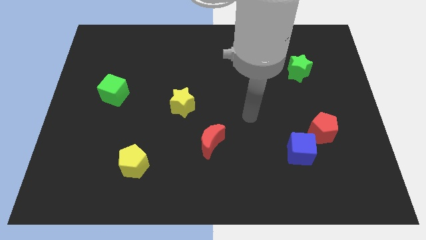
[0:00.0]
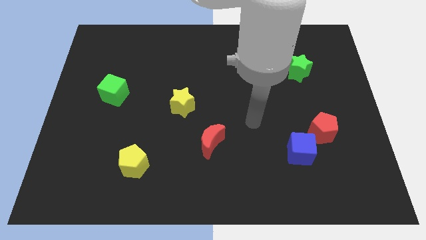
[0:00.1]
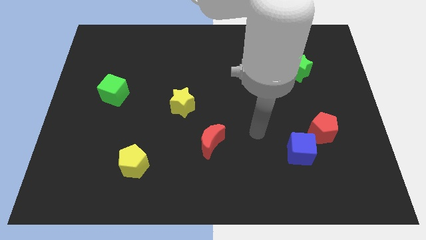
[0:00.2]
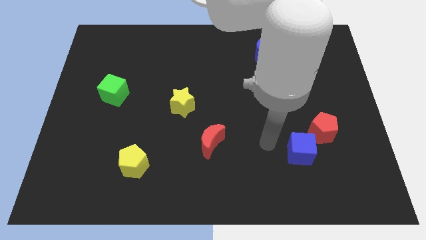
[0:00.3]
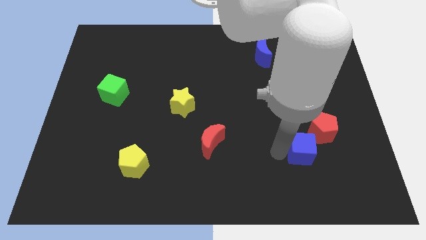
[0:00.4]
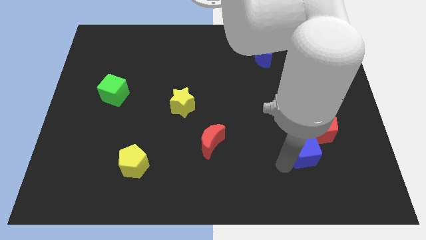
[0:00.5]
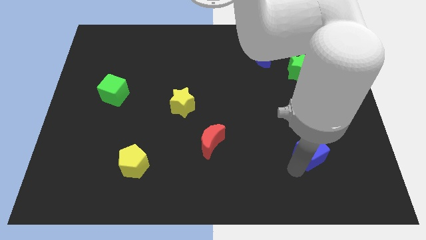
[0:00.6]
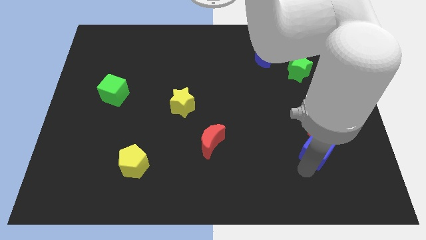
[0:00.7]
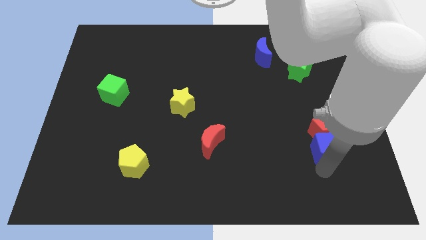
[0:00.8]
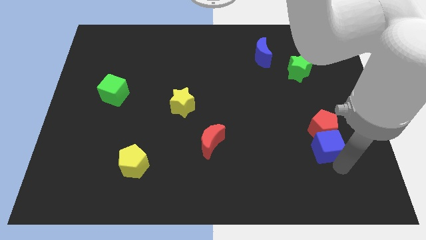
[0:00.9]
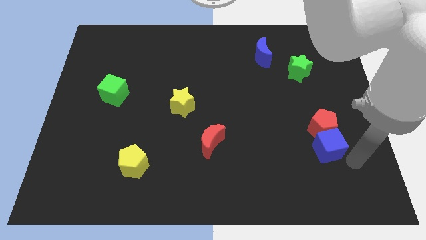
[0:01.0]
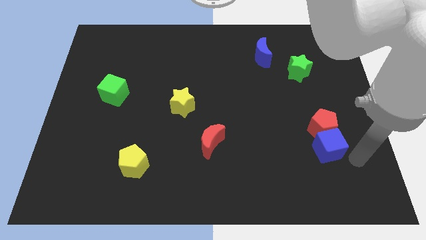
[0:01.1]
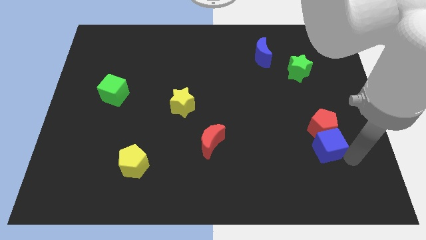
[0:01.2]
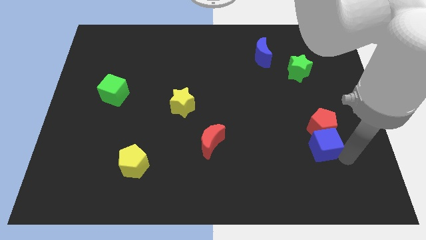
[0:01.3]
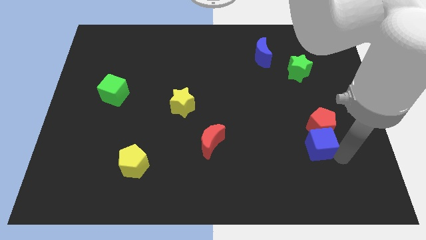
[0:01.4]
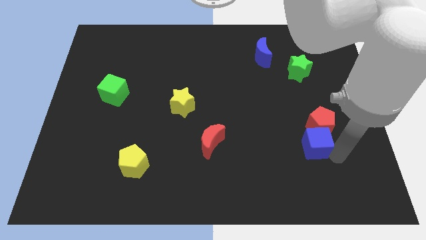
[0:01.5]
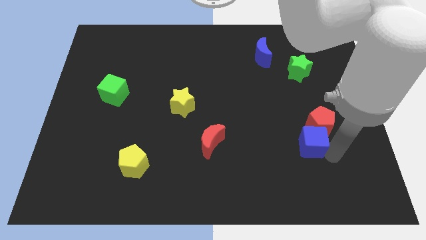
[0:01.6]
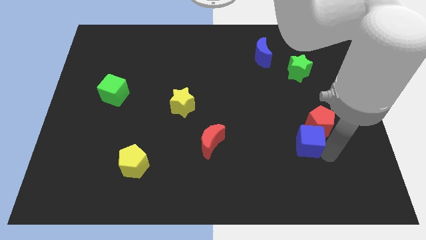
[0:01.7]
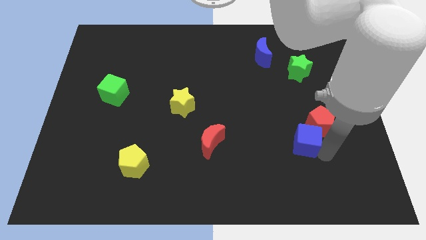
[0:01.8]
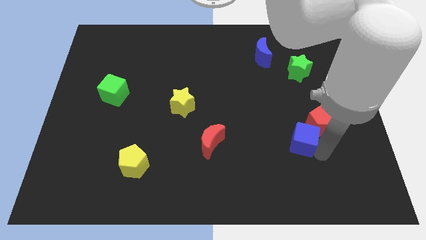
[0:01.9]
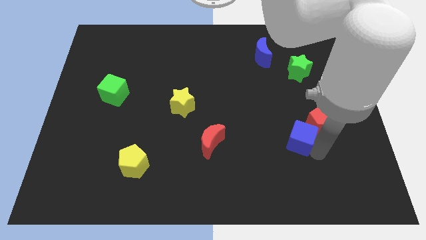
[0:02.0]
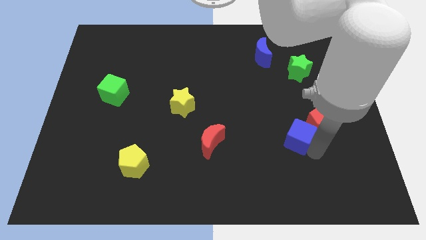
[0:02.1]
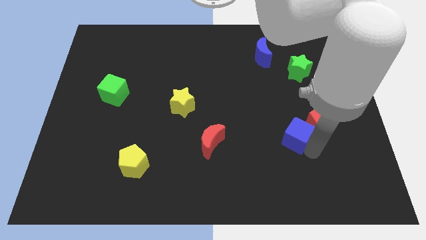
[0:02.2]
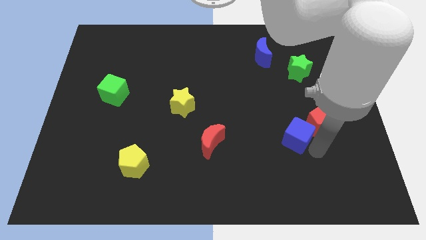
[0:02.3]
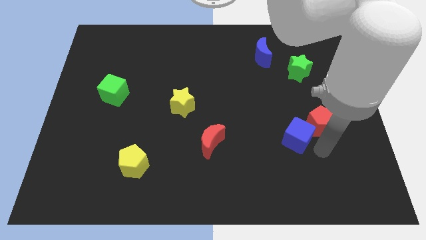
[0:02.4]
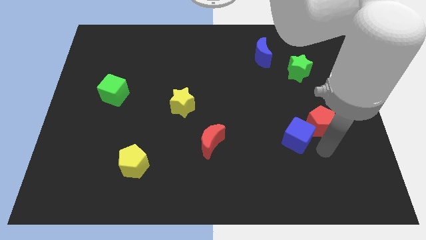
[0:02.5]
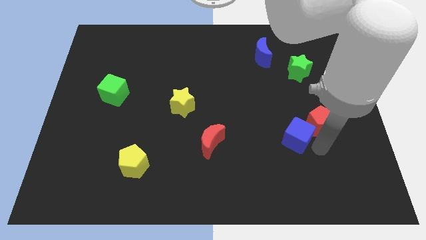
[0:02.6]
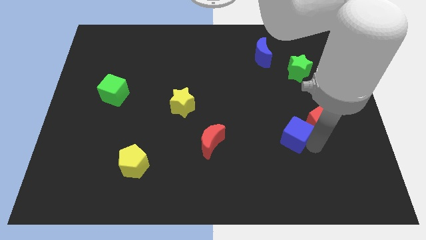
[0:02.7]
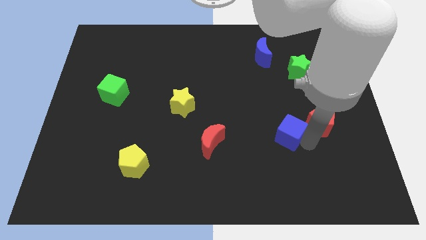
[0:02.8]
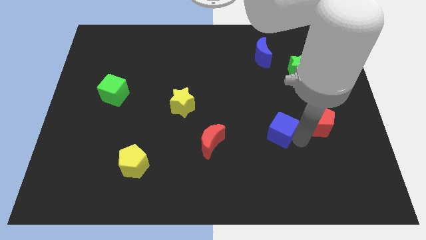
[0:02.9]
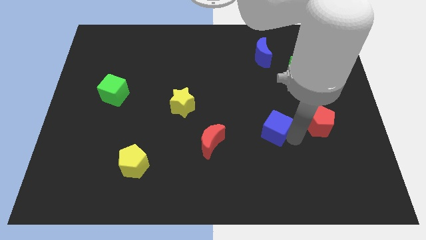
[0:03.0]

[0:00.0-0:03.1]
slightly slide the blue cube up and then left

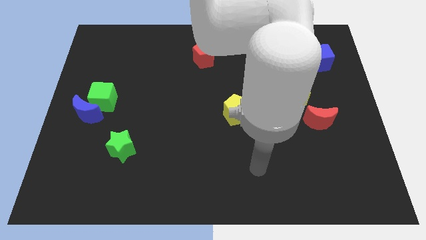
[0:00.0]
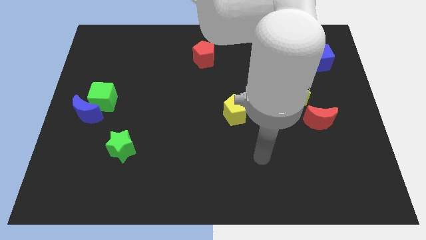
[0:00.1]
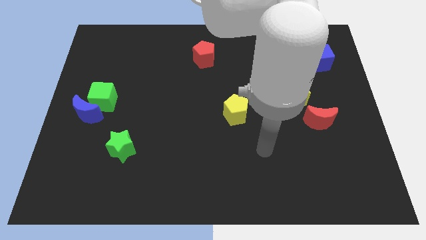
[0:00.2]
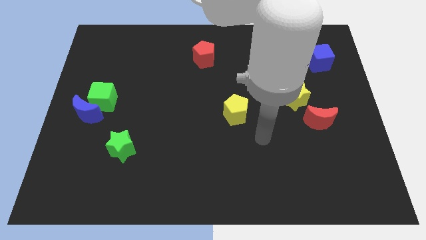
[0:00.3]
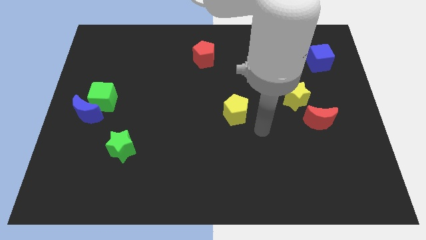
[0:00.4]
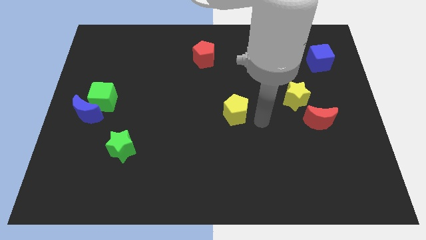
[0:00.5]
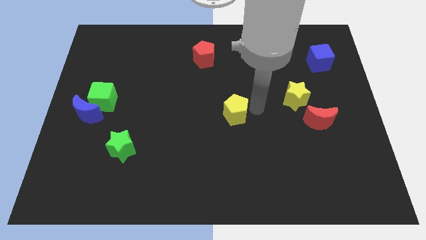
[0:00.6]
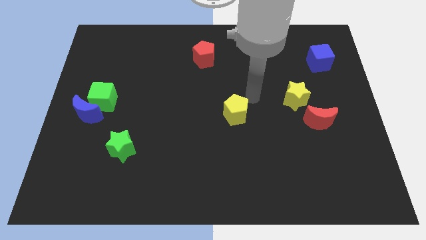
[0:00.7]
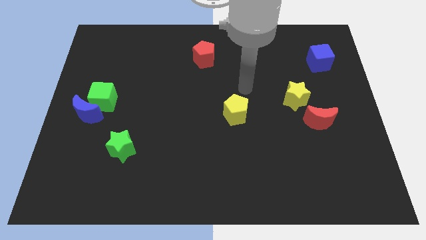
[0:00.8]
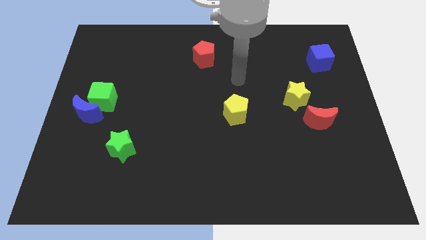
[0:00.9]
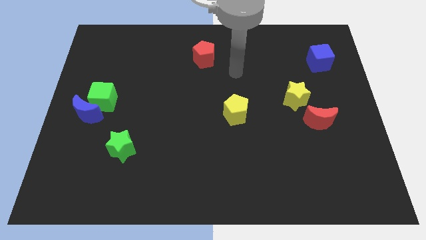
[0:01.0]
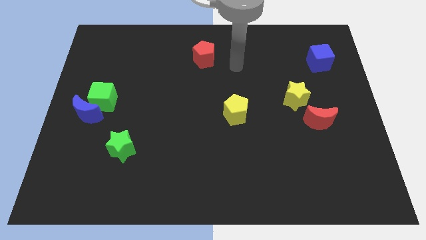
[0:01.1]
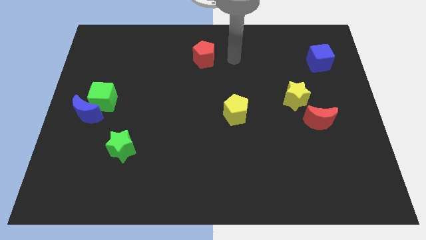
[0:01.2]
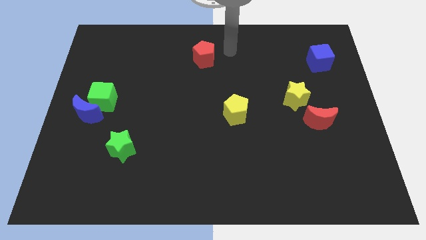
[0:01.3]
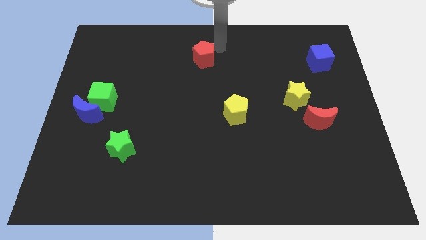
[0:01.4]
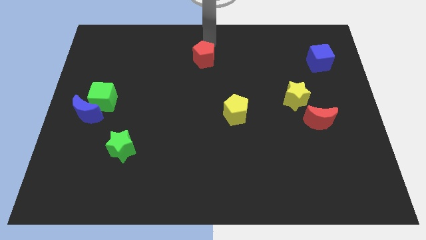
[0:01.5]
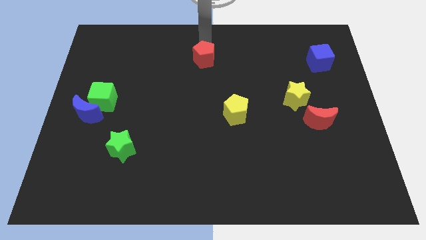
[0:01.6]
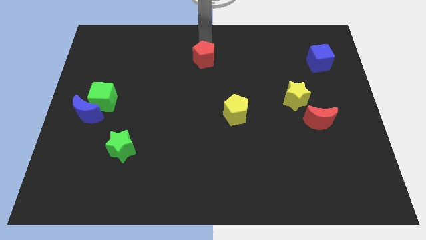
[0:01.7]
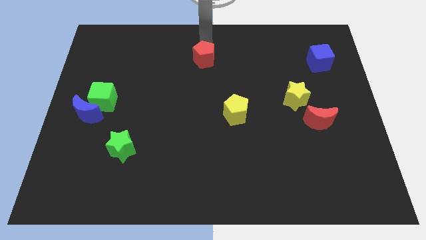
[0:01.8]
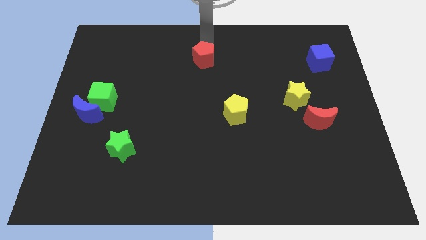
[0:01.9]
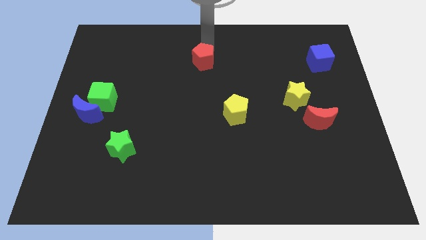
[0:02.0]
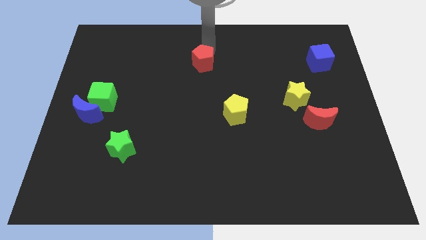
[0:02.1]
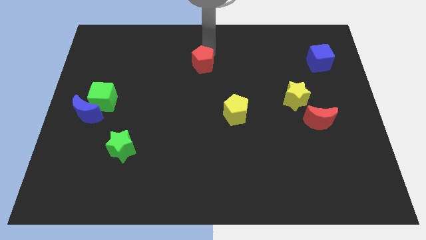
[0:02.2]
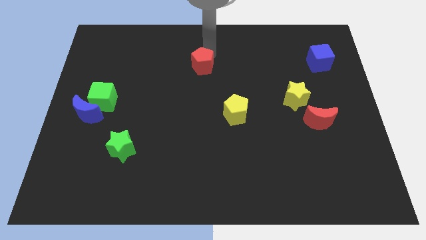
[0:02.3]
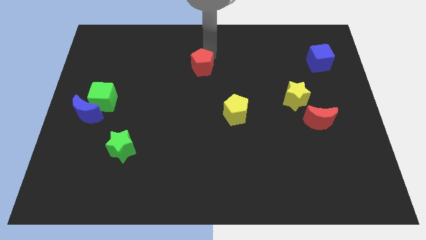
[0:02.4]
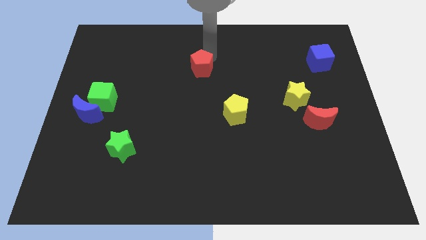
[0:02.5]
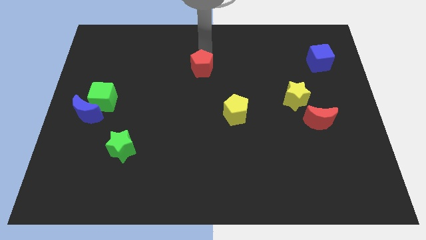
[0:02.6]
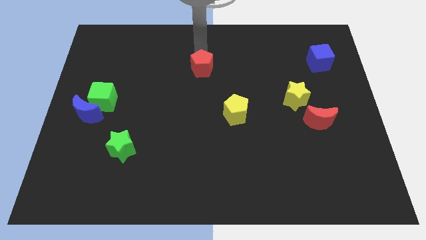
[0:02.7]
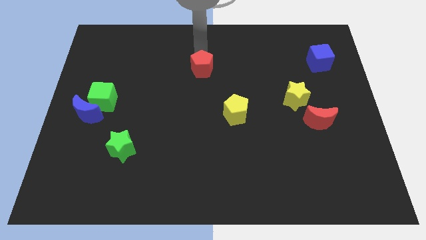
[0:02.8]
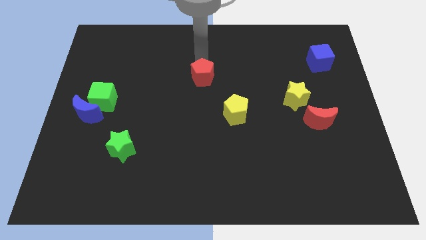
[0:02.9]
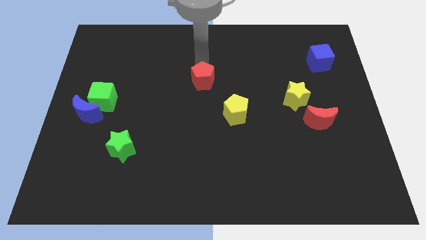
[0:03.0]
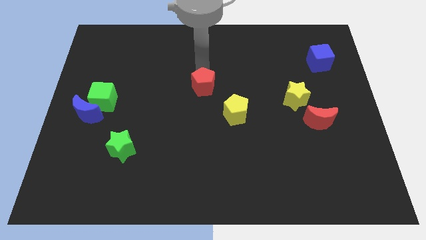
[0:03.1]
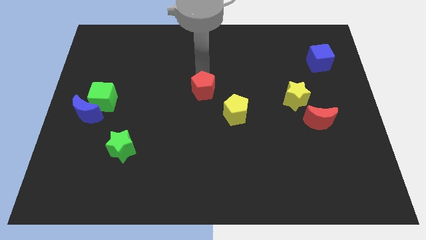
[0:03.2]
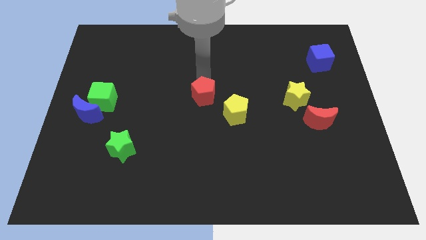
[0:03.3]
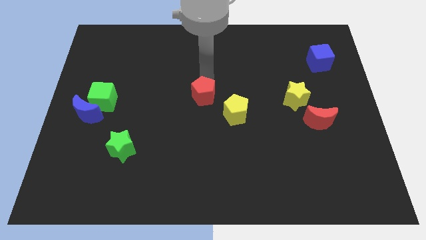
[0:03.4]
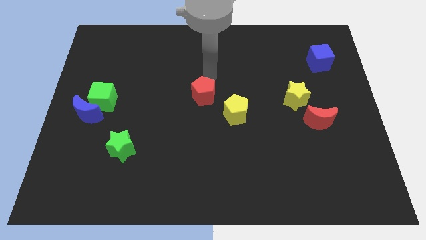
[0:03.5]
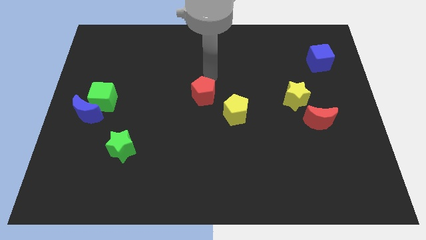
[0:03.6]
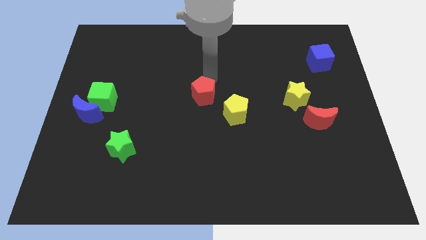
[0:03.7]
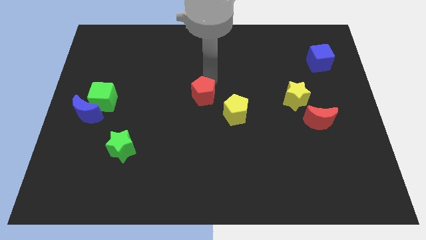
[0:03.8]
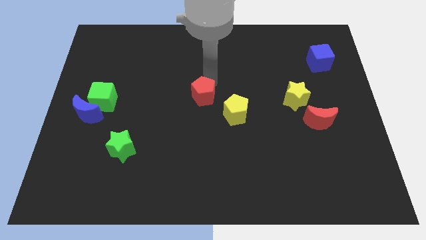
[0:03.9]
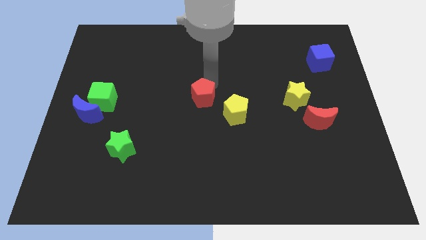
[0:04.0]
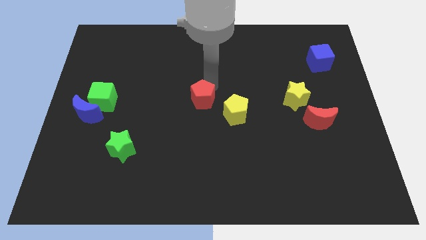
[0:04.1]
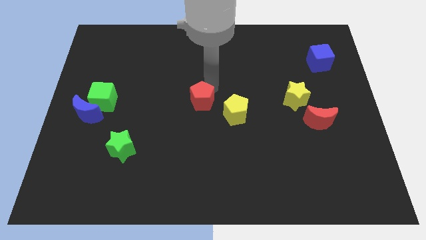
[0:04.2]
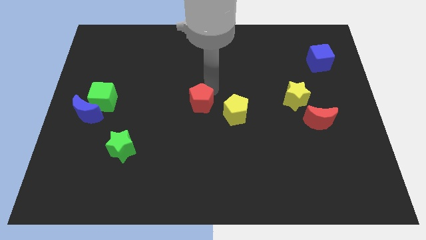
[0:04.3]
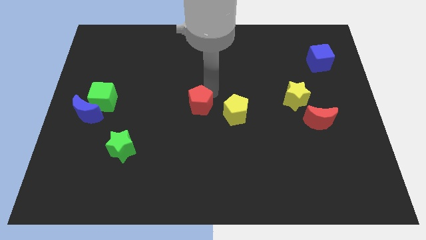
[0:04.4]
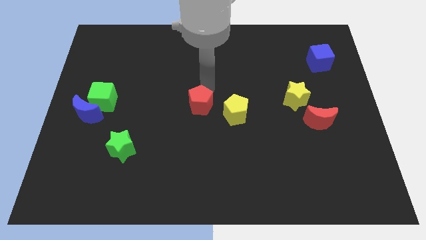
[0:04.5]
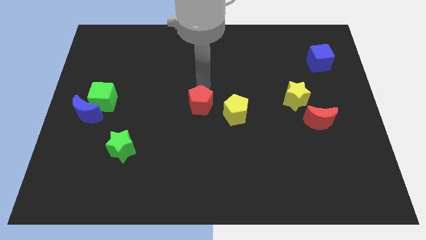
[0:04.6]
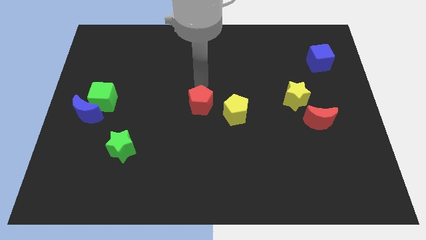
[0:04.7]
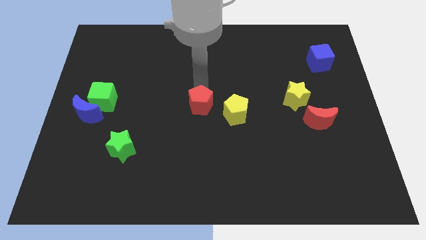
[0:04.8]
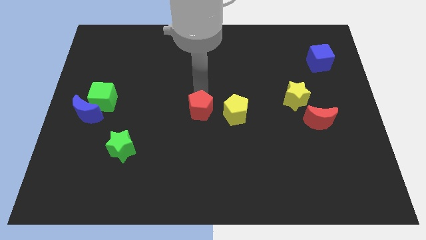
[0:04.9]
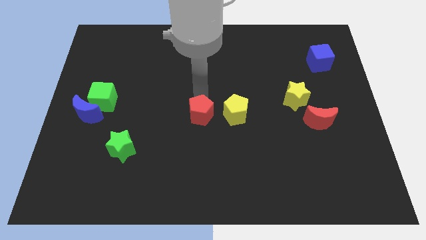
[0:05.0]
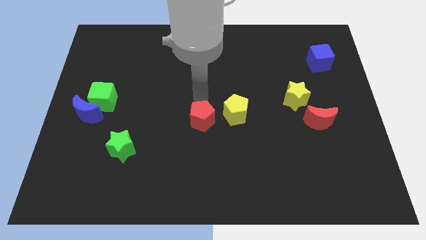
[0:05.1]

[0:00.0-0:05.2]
push the red pentagon down
